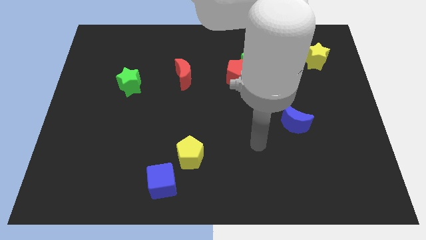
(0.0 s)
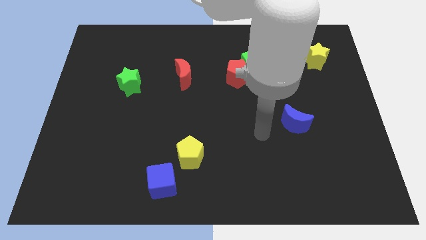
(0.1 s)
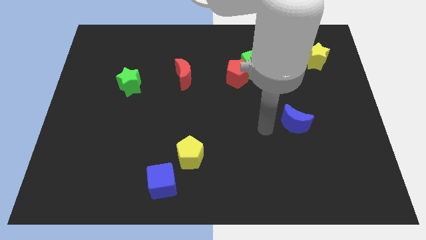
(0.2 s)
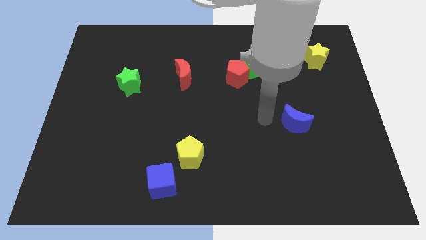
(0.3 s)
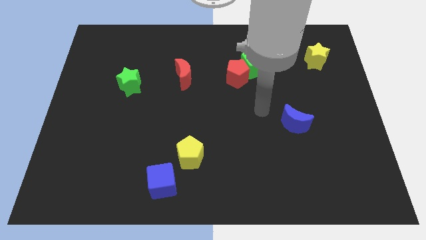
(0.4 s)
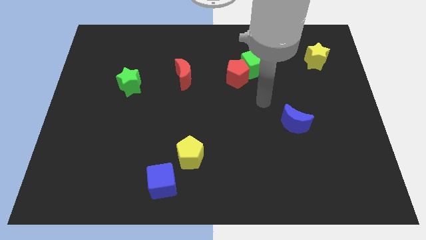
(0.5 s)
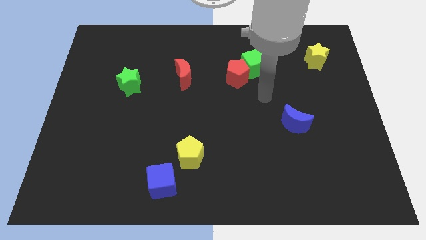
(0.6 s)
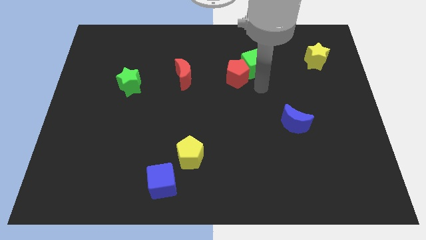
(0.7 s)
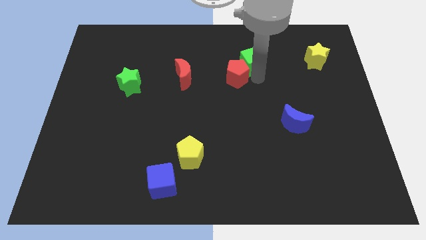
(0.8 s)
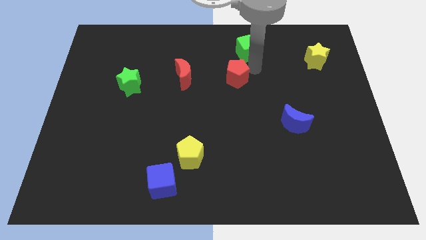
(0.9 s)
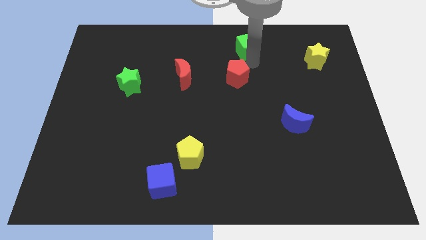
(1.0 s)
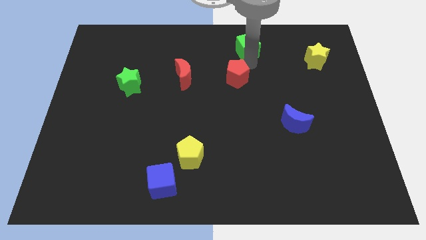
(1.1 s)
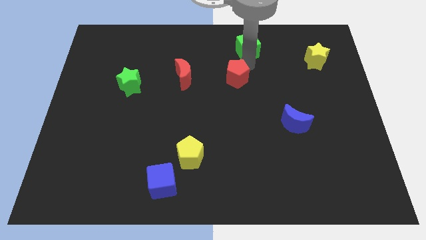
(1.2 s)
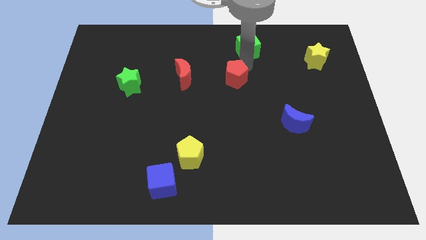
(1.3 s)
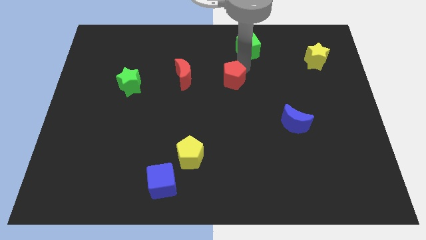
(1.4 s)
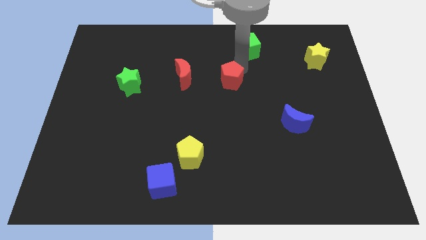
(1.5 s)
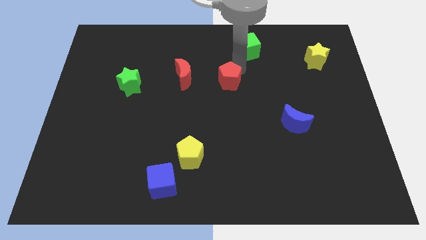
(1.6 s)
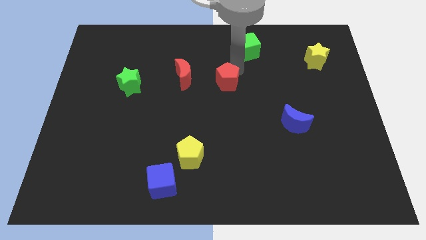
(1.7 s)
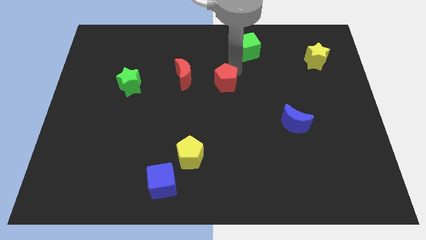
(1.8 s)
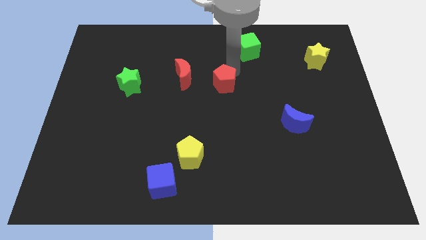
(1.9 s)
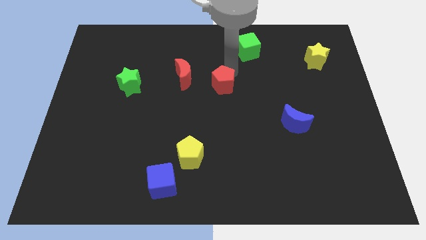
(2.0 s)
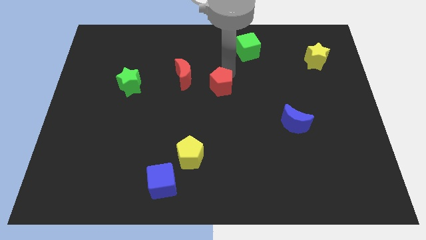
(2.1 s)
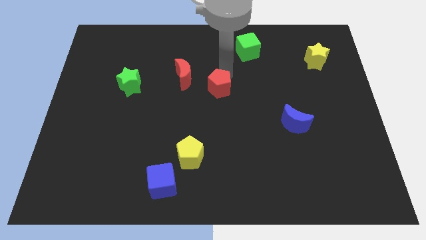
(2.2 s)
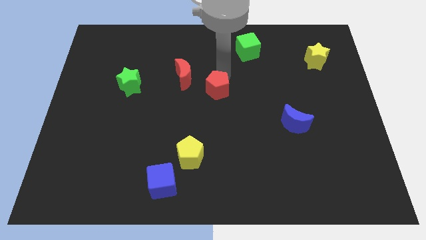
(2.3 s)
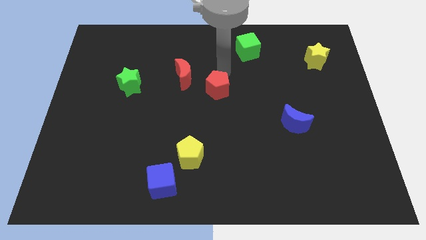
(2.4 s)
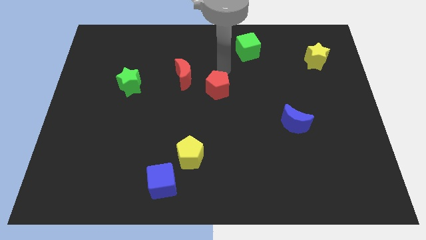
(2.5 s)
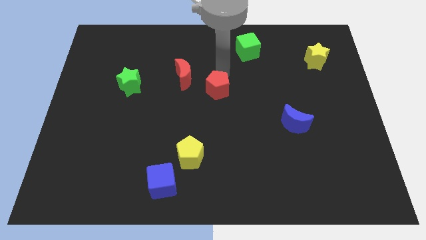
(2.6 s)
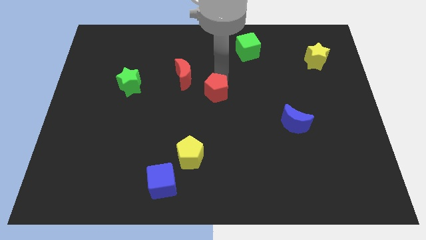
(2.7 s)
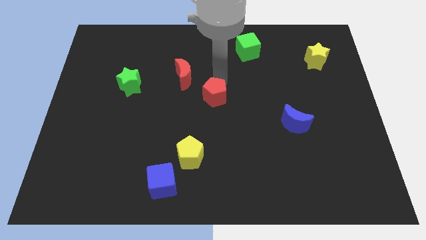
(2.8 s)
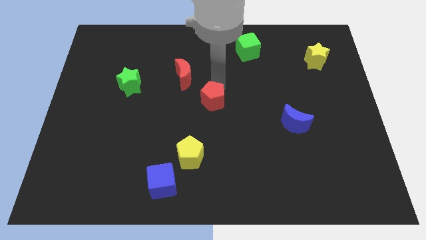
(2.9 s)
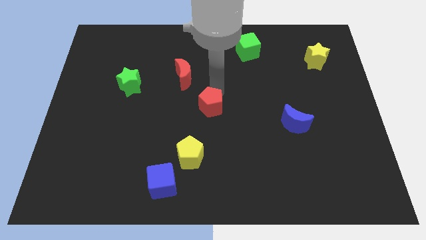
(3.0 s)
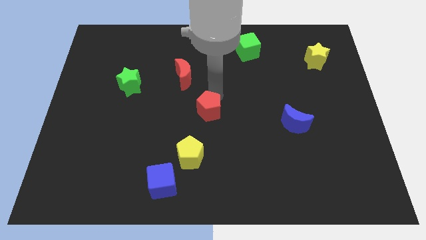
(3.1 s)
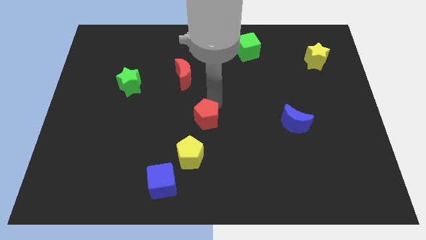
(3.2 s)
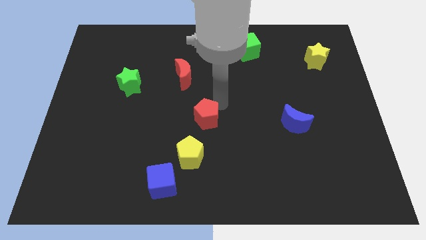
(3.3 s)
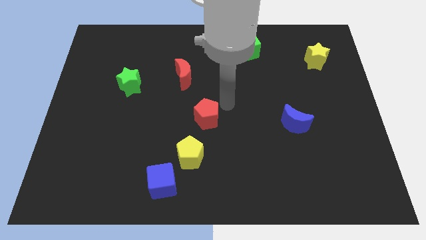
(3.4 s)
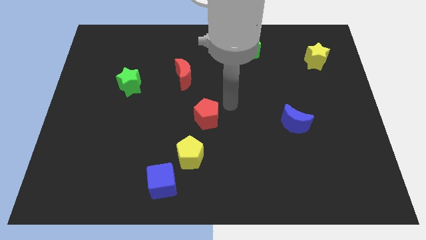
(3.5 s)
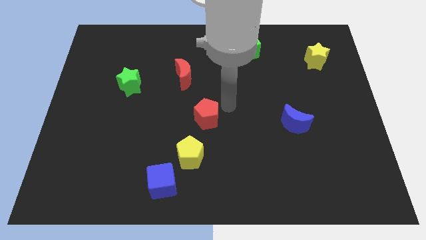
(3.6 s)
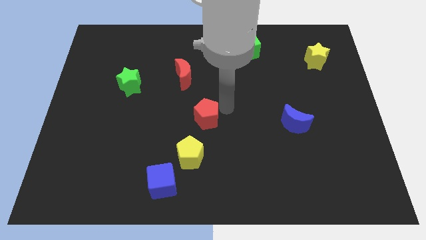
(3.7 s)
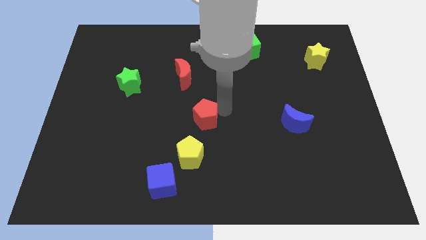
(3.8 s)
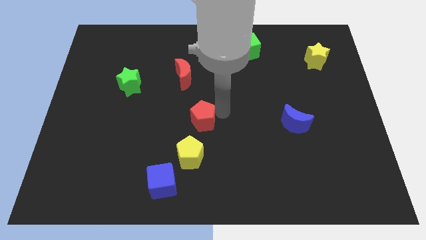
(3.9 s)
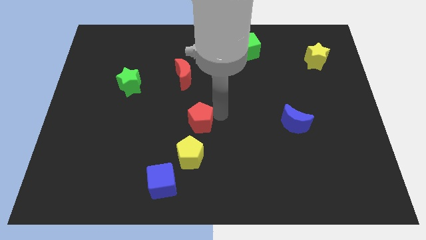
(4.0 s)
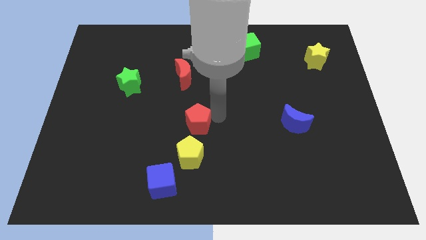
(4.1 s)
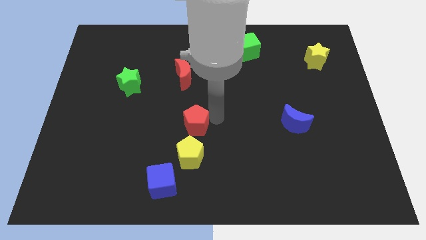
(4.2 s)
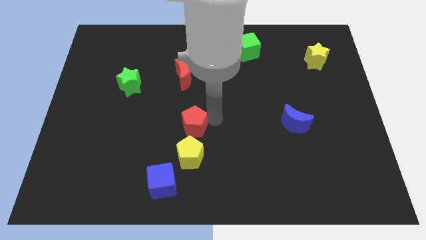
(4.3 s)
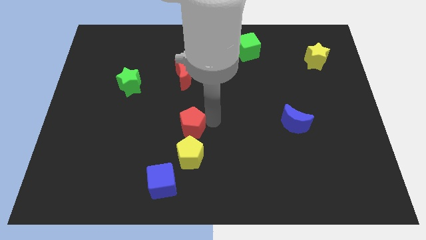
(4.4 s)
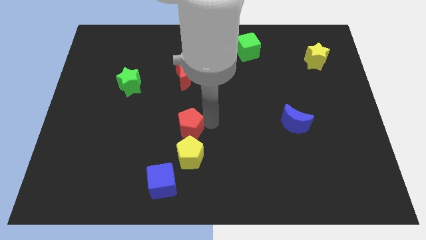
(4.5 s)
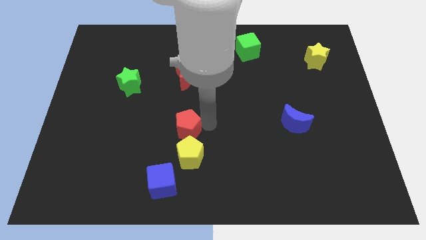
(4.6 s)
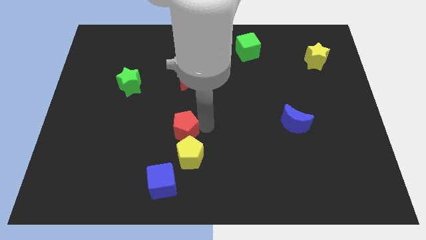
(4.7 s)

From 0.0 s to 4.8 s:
push the red pentagon to the top side of the blue cube

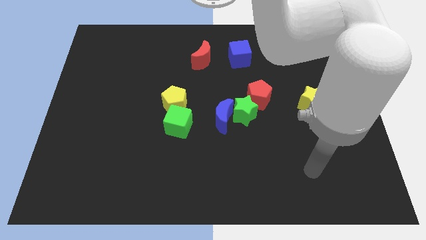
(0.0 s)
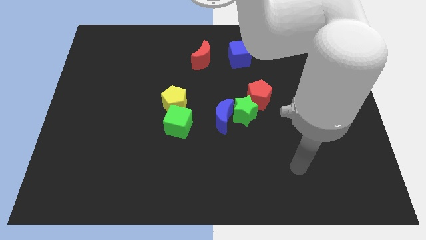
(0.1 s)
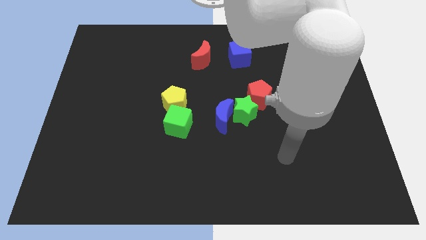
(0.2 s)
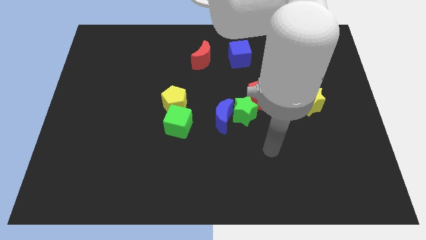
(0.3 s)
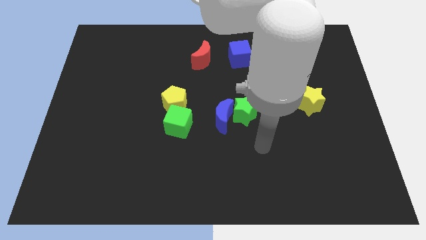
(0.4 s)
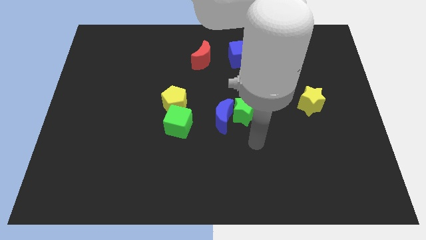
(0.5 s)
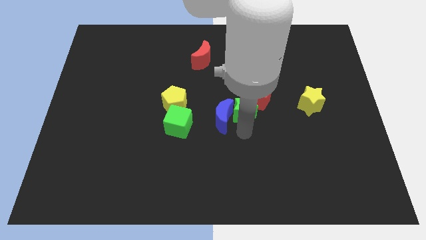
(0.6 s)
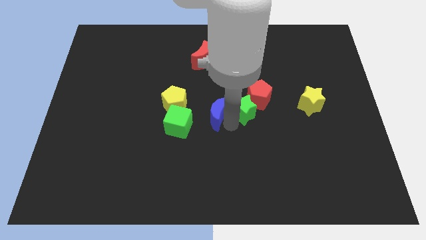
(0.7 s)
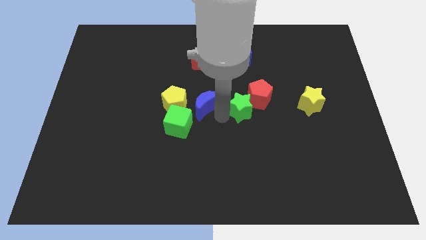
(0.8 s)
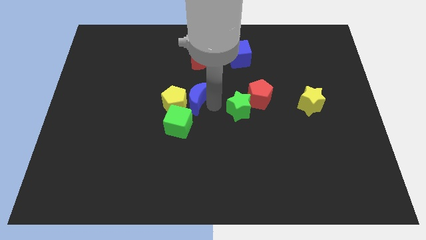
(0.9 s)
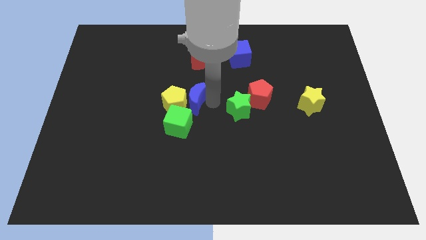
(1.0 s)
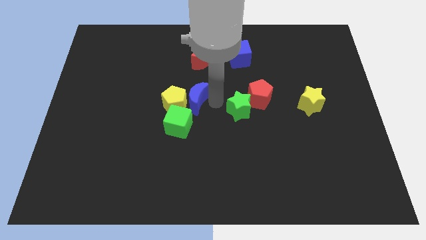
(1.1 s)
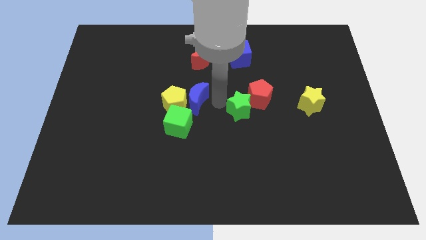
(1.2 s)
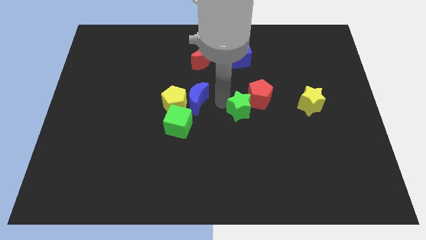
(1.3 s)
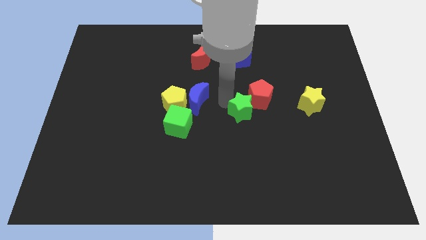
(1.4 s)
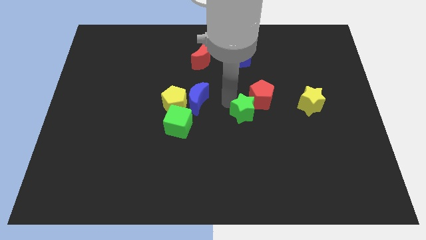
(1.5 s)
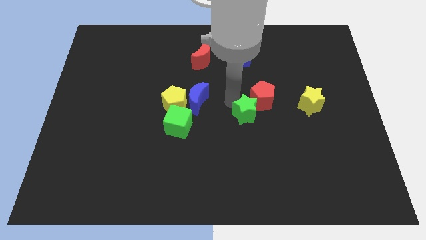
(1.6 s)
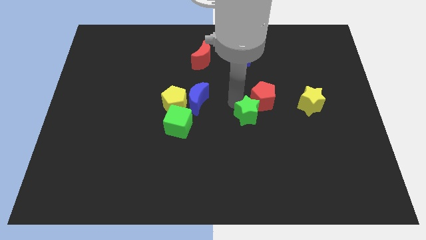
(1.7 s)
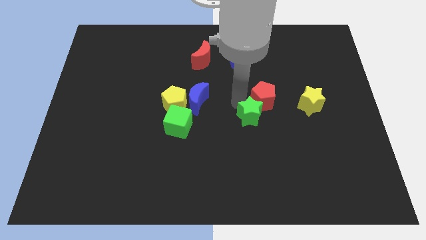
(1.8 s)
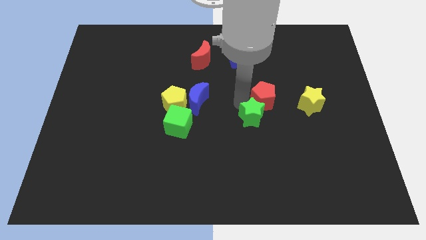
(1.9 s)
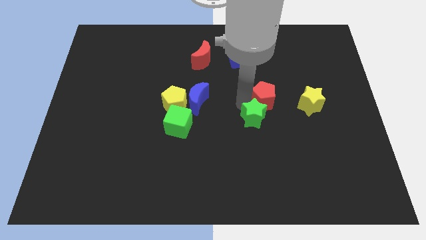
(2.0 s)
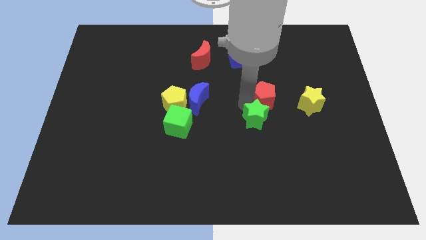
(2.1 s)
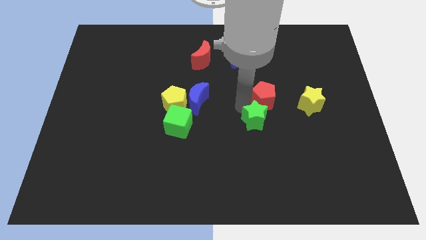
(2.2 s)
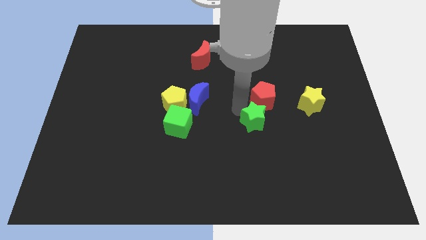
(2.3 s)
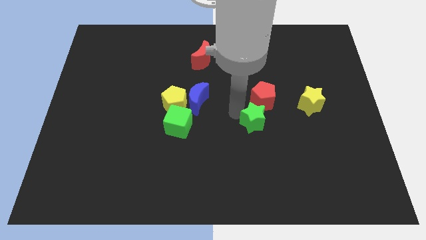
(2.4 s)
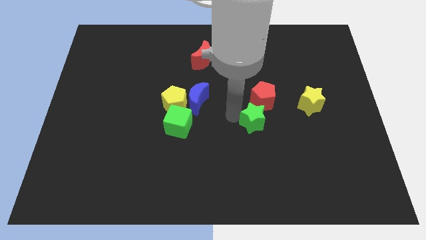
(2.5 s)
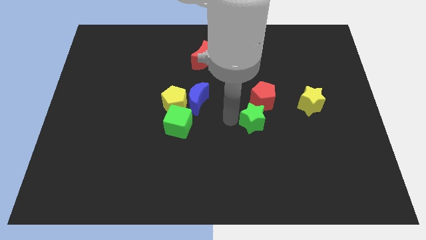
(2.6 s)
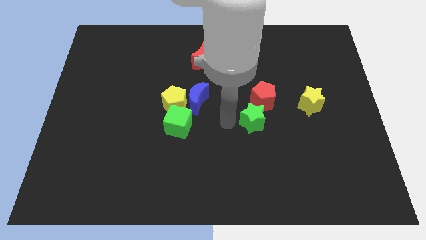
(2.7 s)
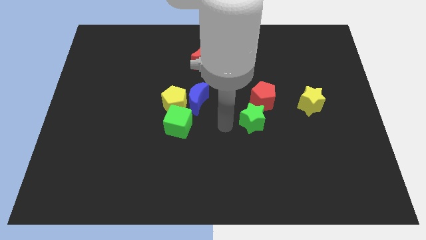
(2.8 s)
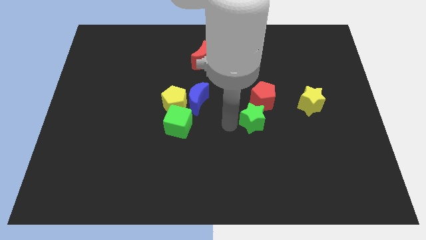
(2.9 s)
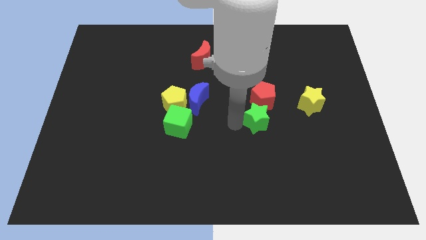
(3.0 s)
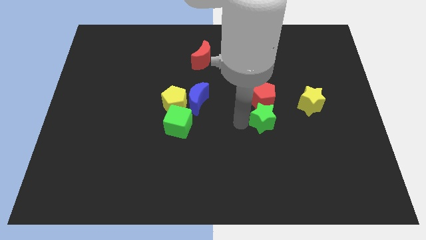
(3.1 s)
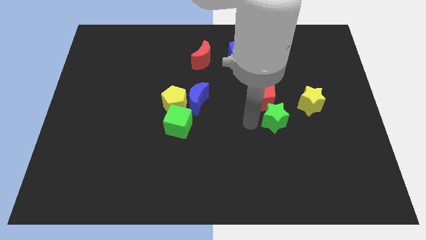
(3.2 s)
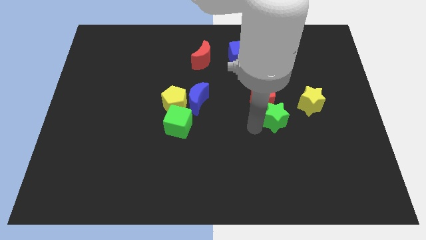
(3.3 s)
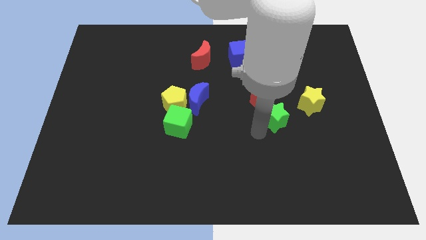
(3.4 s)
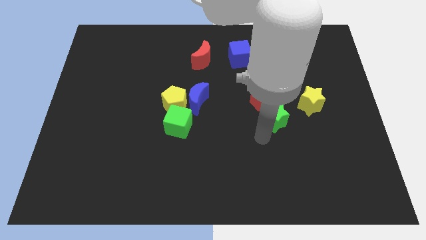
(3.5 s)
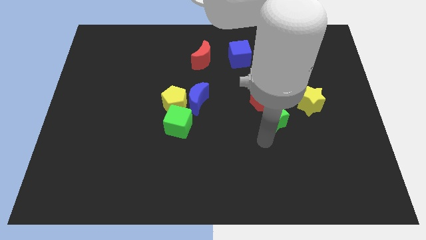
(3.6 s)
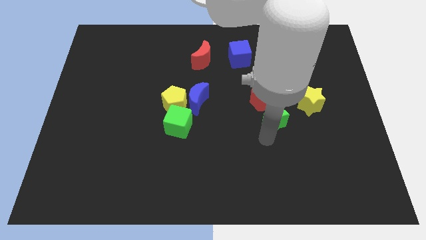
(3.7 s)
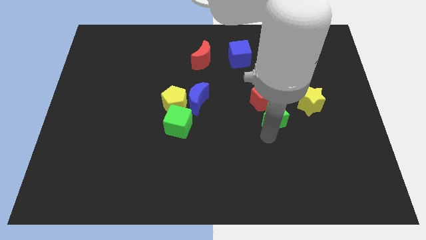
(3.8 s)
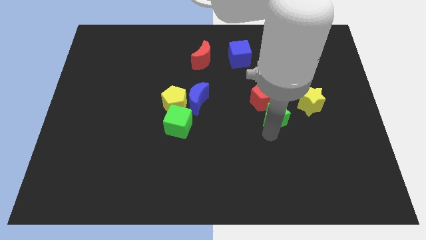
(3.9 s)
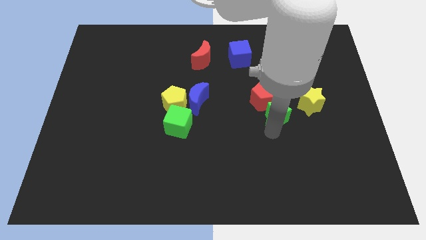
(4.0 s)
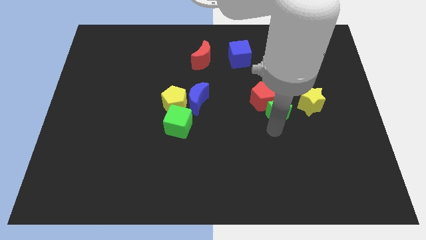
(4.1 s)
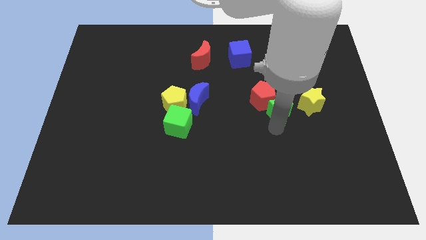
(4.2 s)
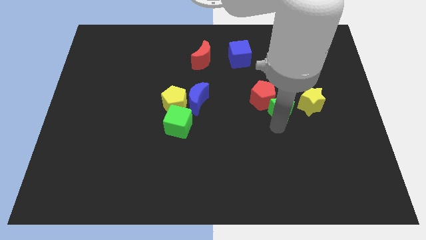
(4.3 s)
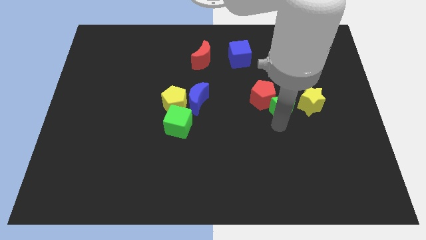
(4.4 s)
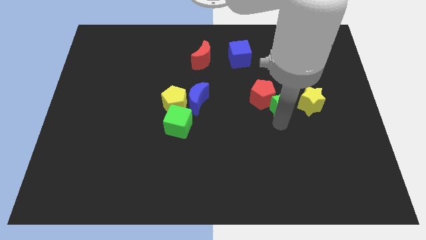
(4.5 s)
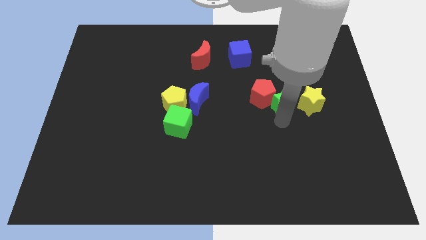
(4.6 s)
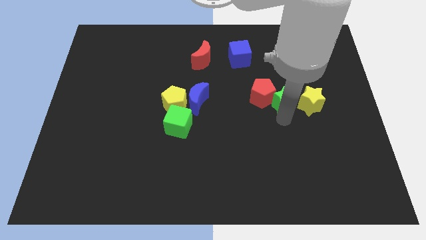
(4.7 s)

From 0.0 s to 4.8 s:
move the green star to the top left of the yellow star
